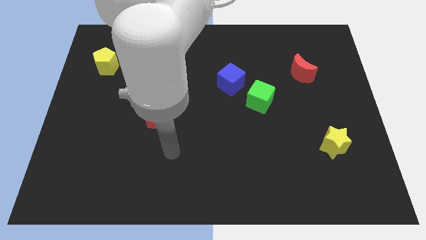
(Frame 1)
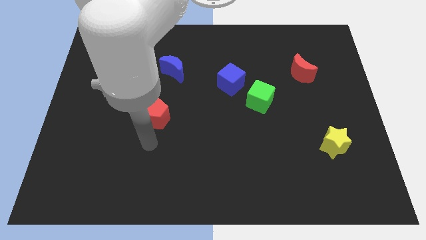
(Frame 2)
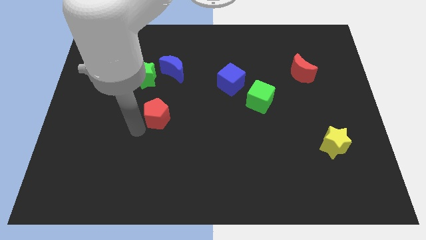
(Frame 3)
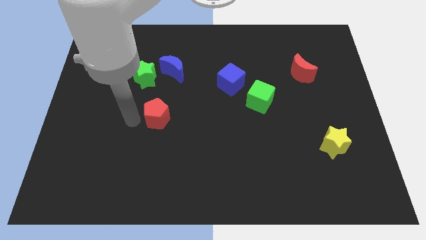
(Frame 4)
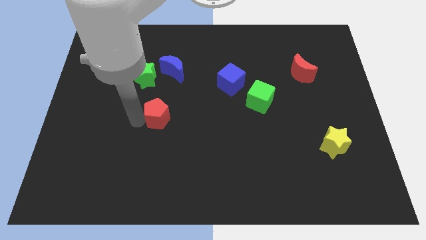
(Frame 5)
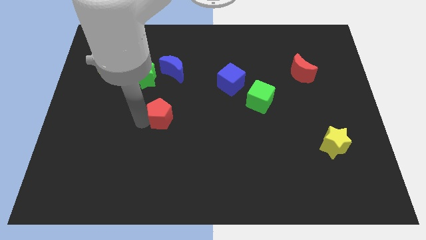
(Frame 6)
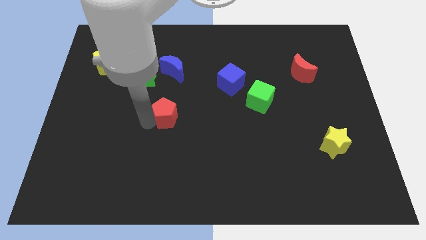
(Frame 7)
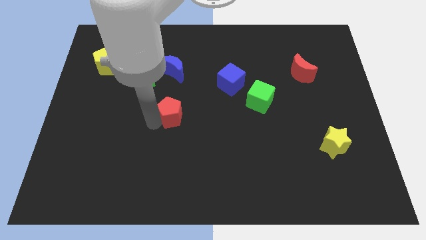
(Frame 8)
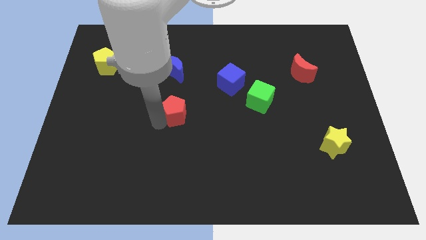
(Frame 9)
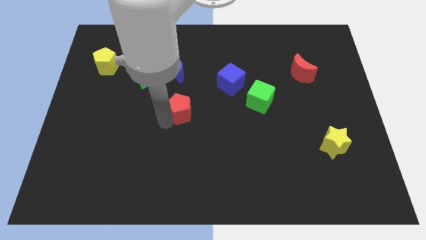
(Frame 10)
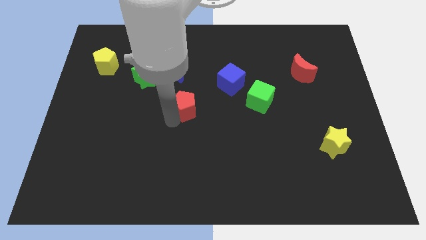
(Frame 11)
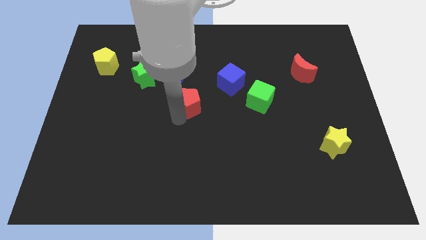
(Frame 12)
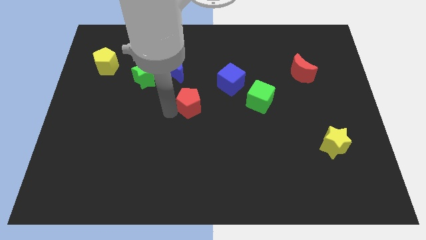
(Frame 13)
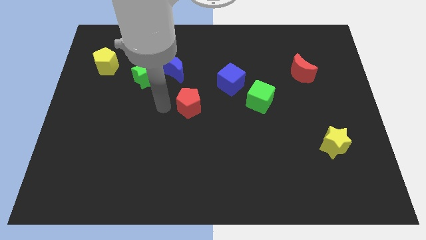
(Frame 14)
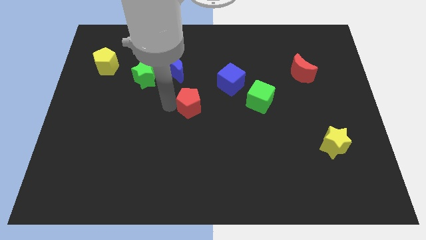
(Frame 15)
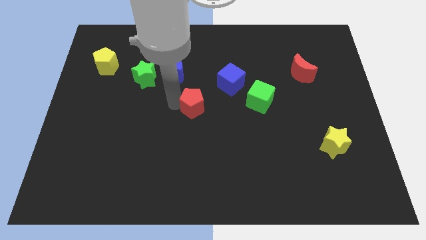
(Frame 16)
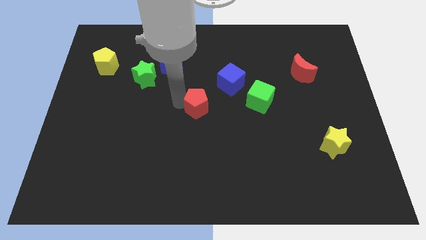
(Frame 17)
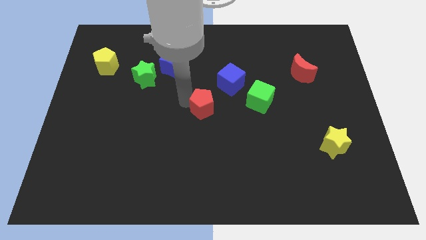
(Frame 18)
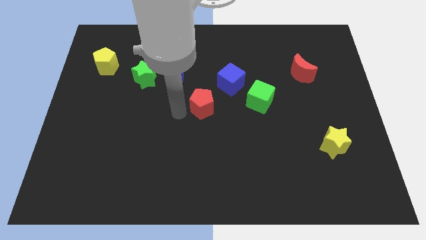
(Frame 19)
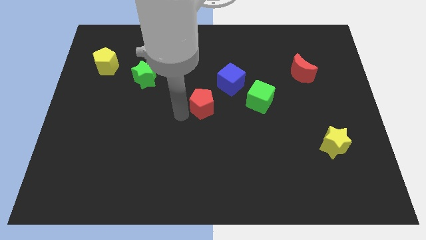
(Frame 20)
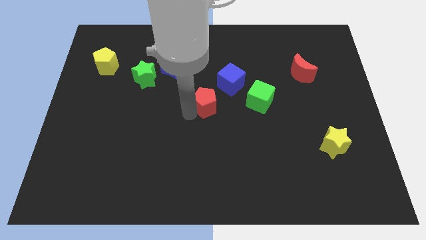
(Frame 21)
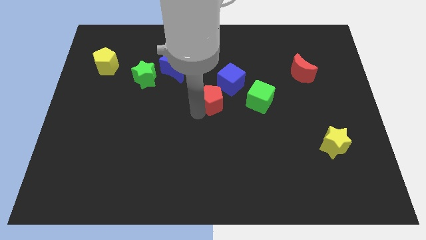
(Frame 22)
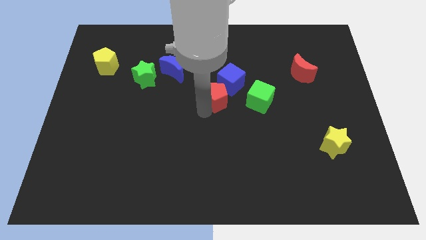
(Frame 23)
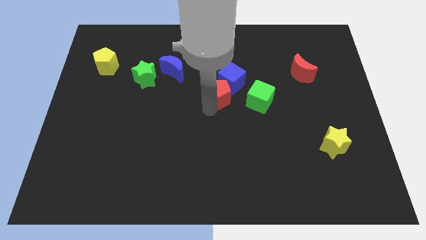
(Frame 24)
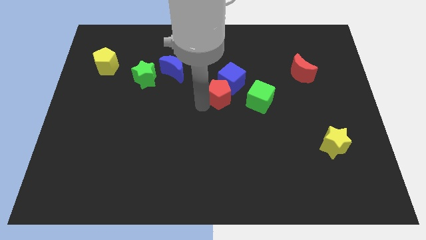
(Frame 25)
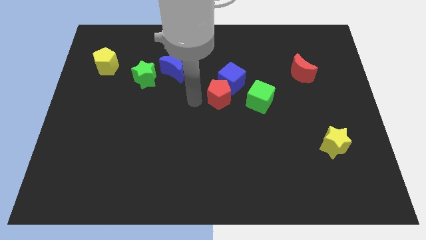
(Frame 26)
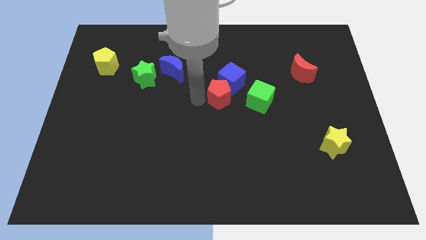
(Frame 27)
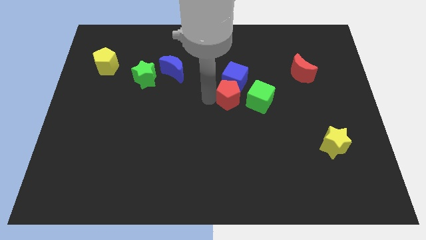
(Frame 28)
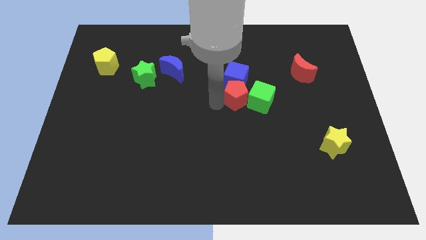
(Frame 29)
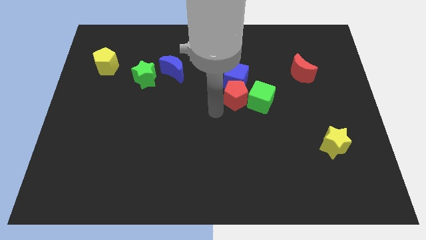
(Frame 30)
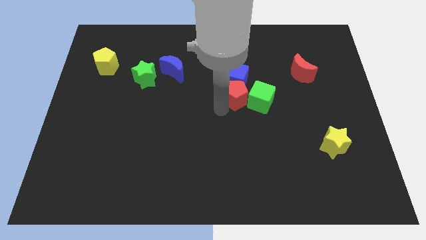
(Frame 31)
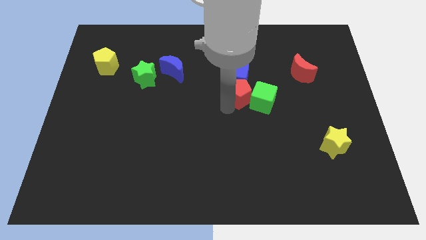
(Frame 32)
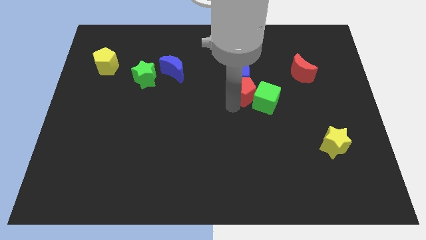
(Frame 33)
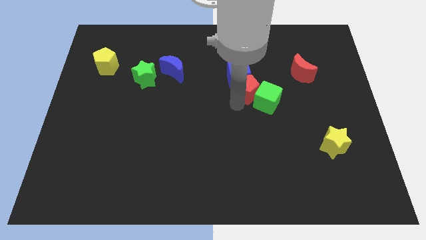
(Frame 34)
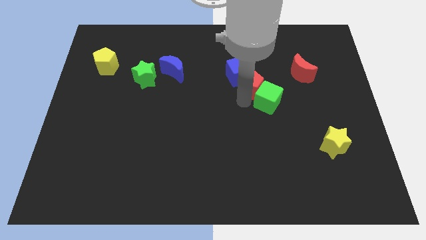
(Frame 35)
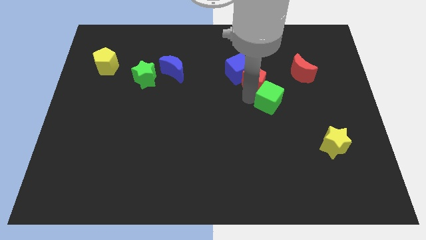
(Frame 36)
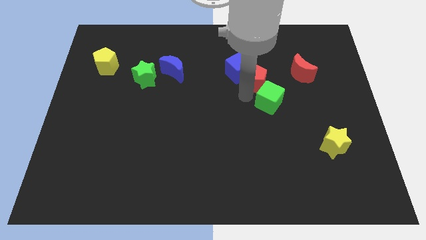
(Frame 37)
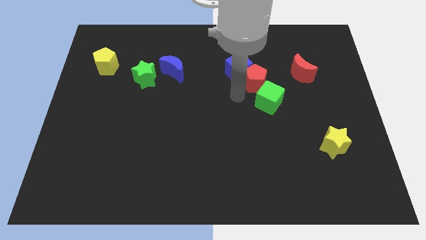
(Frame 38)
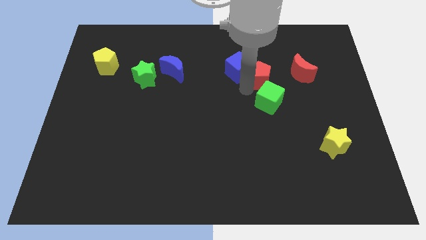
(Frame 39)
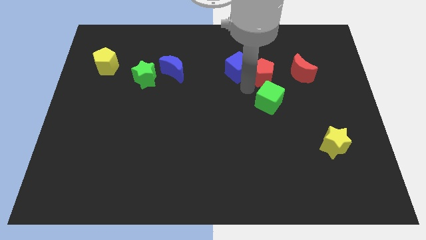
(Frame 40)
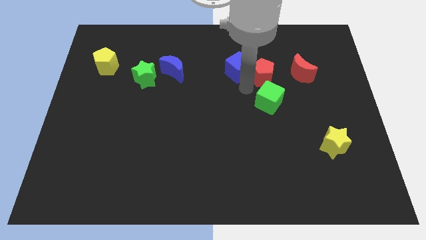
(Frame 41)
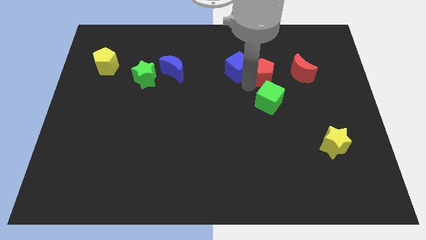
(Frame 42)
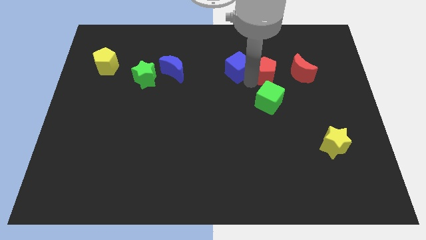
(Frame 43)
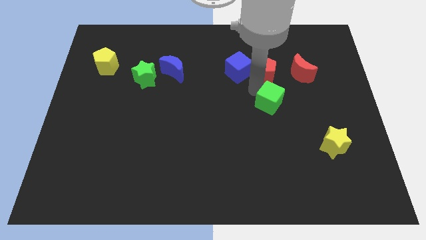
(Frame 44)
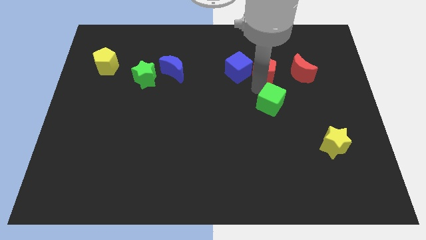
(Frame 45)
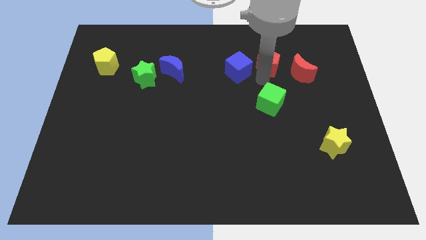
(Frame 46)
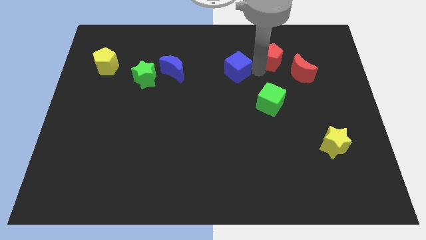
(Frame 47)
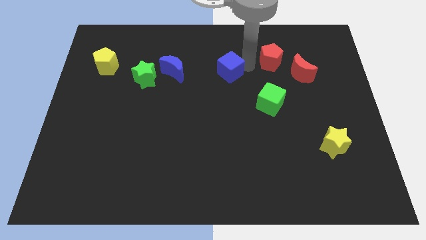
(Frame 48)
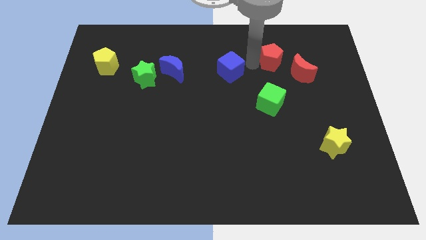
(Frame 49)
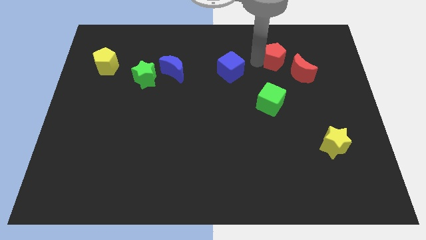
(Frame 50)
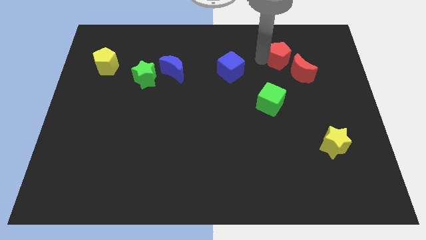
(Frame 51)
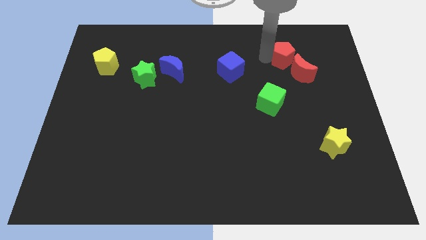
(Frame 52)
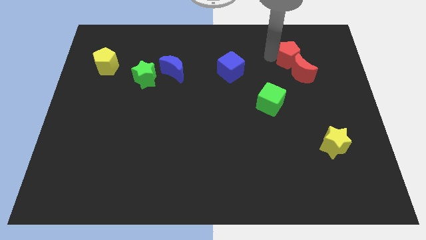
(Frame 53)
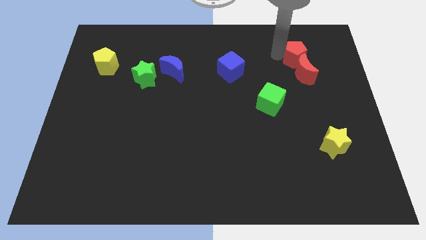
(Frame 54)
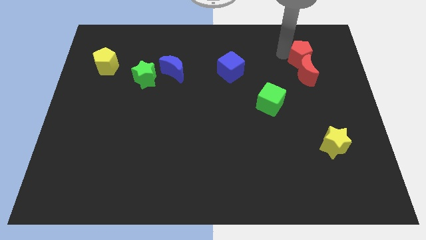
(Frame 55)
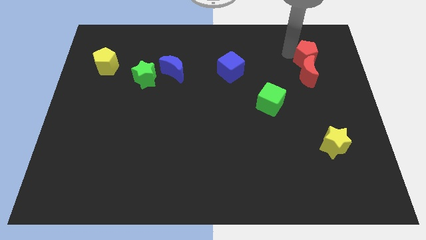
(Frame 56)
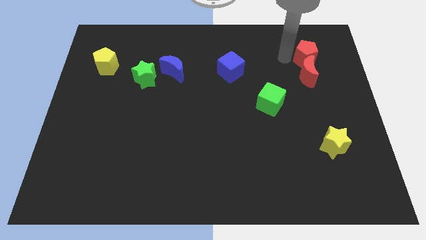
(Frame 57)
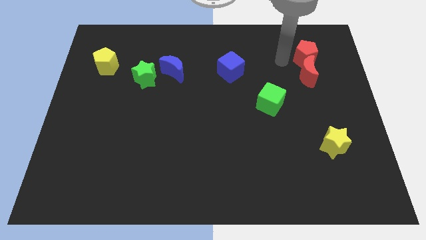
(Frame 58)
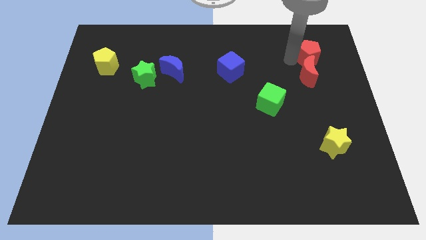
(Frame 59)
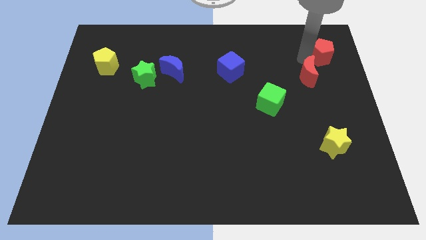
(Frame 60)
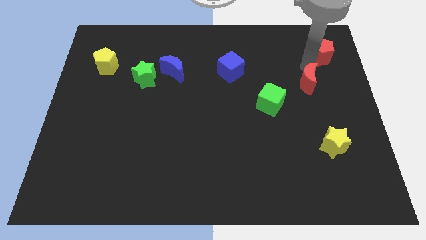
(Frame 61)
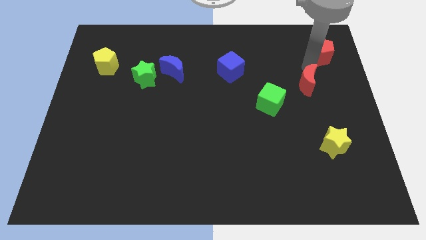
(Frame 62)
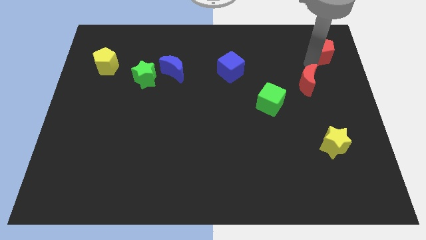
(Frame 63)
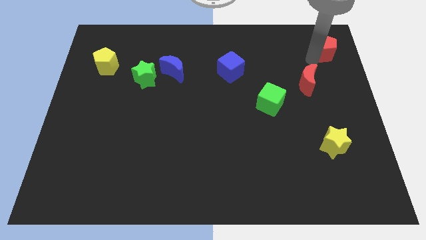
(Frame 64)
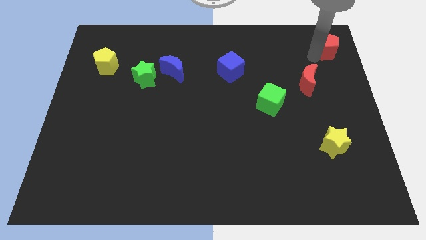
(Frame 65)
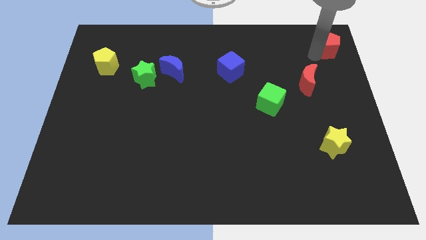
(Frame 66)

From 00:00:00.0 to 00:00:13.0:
move the red pentagon to the upper right corner
